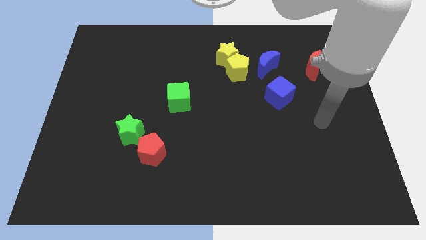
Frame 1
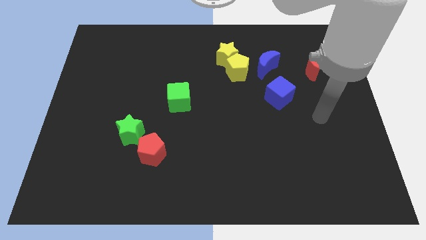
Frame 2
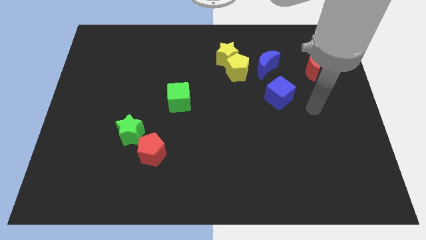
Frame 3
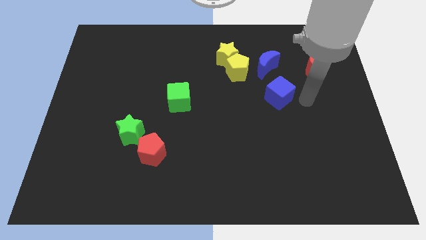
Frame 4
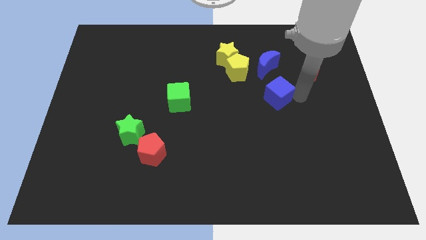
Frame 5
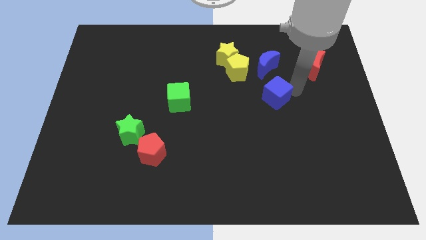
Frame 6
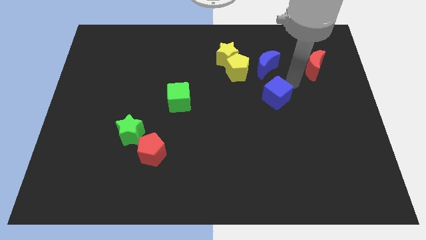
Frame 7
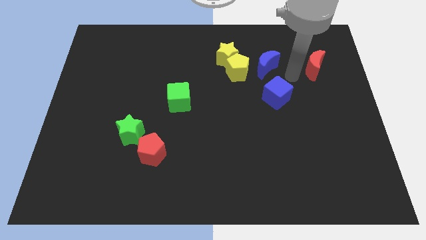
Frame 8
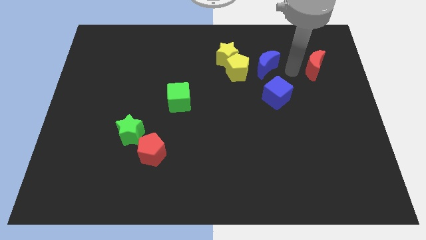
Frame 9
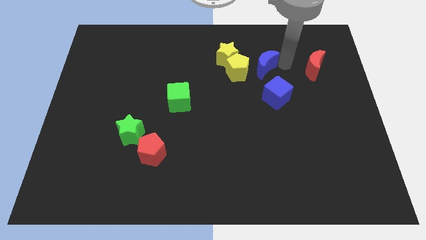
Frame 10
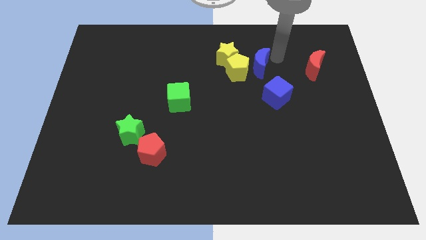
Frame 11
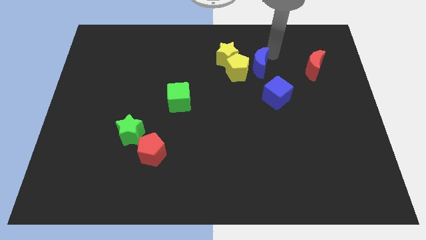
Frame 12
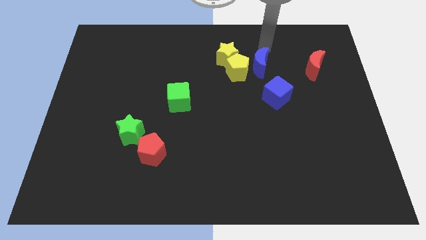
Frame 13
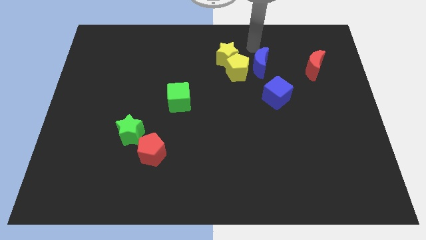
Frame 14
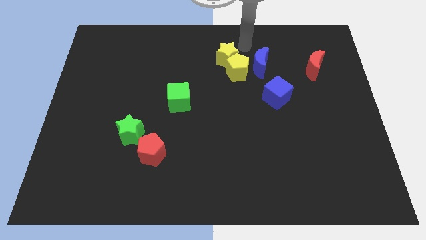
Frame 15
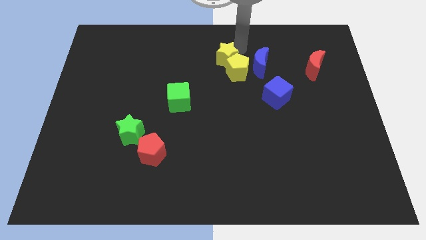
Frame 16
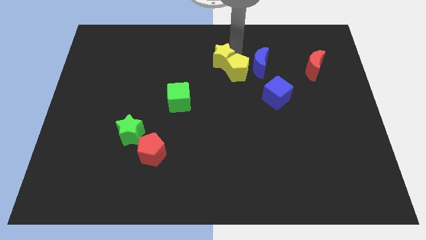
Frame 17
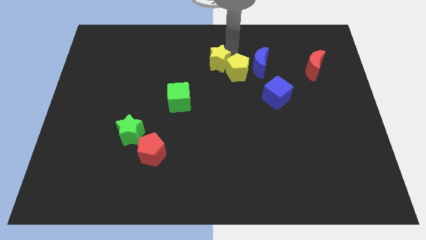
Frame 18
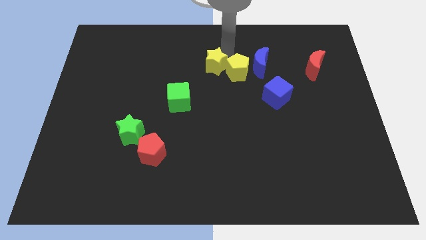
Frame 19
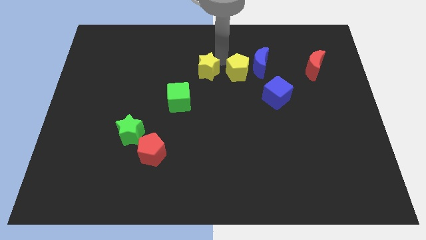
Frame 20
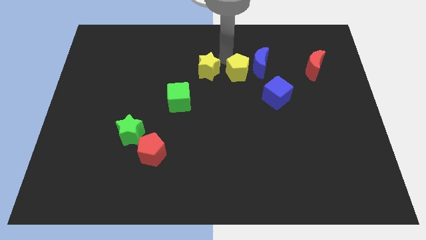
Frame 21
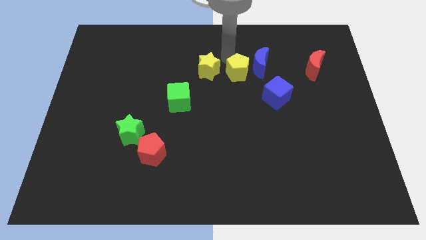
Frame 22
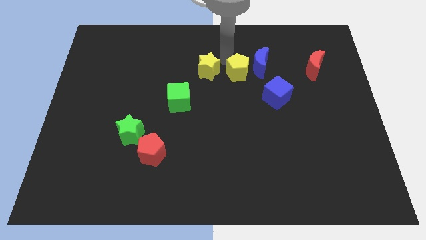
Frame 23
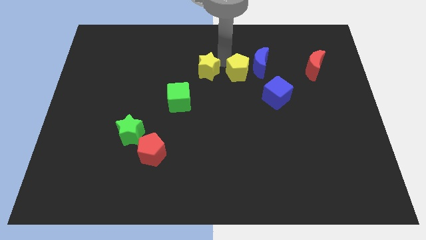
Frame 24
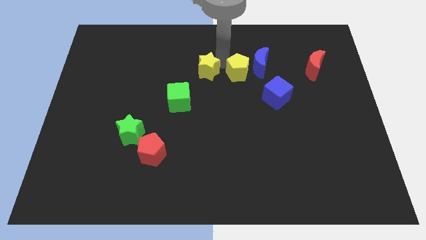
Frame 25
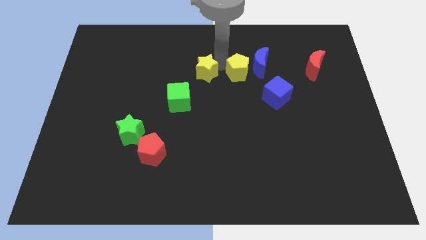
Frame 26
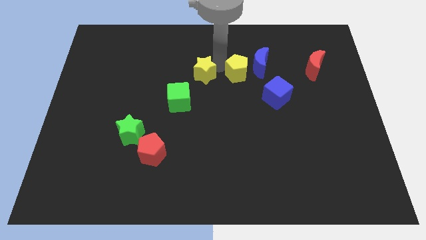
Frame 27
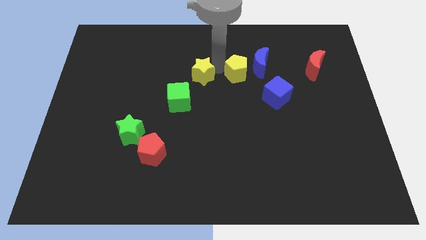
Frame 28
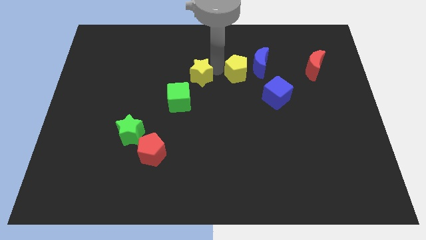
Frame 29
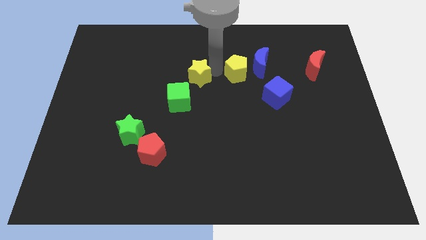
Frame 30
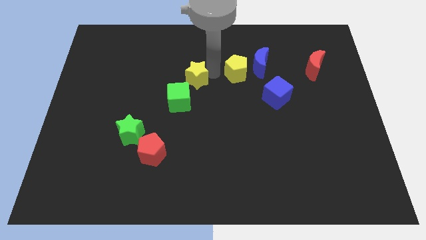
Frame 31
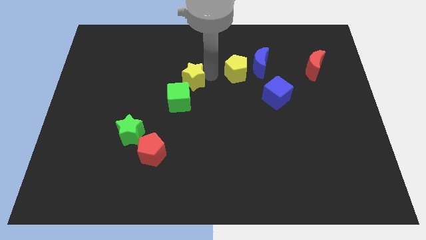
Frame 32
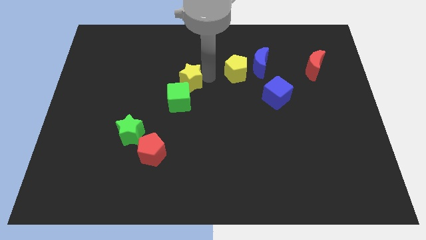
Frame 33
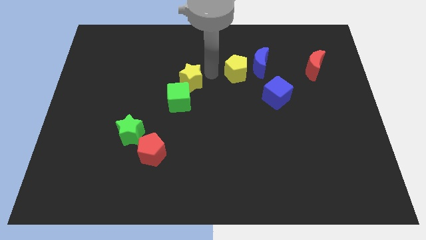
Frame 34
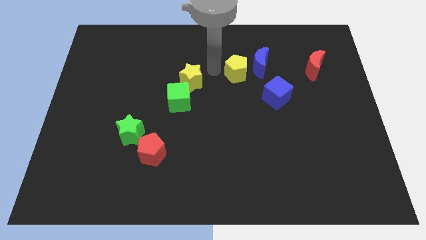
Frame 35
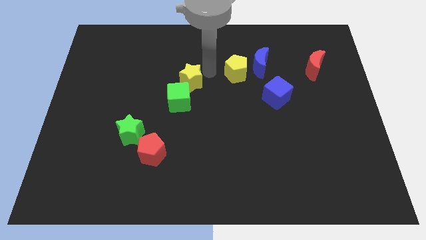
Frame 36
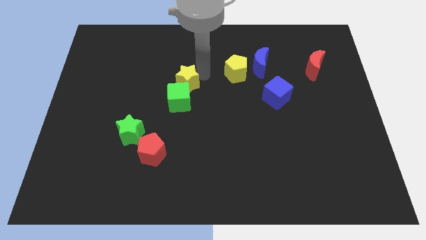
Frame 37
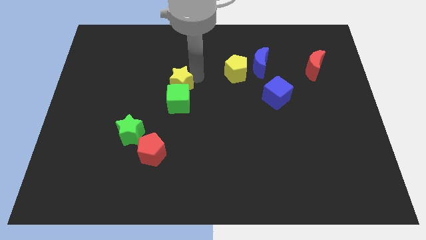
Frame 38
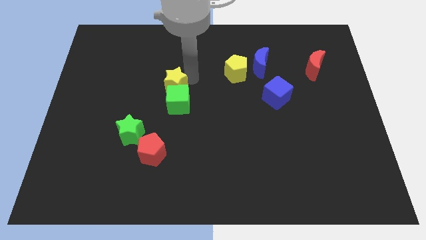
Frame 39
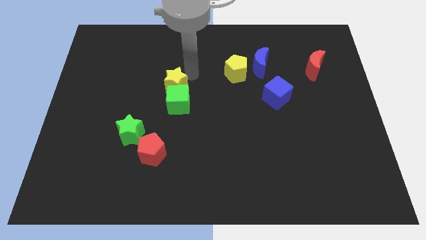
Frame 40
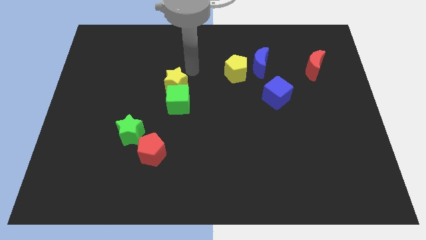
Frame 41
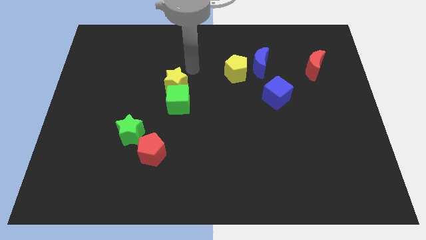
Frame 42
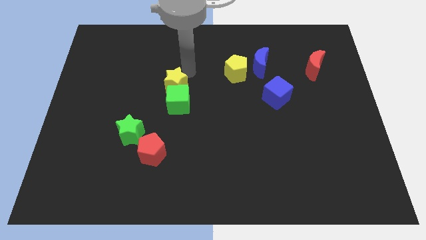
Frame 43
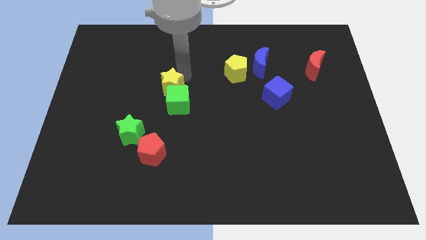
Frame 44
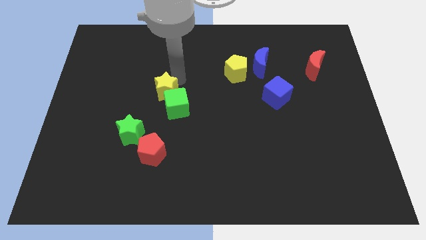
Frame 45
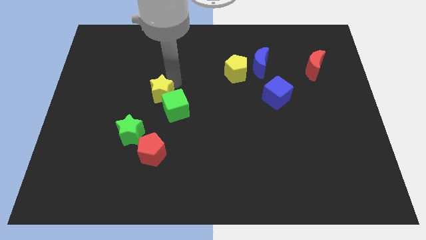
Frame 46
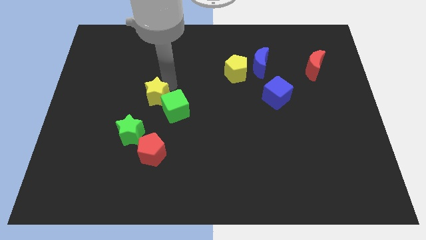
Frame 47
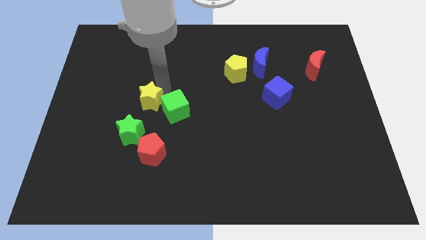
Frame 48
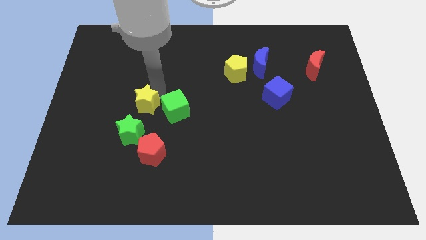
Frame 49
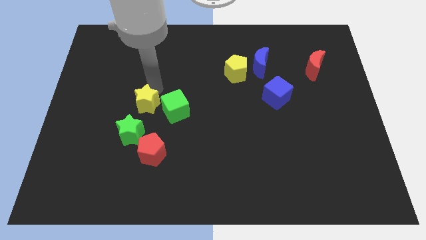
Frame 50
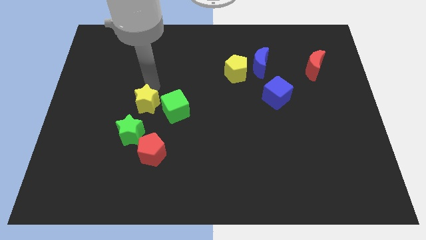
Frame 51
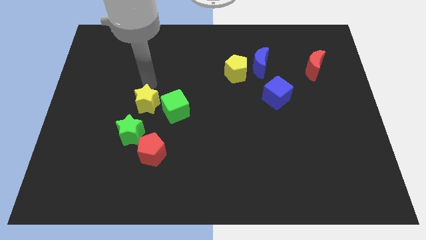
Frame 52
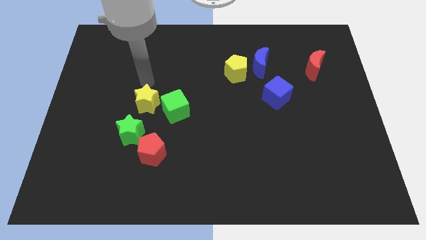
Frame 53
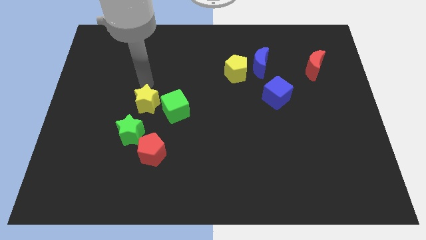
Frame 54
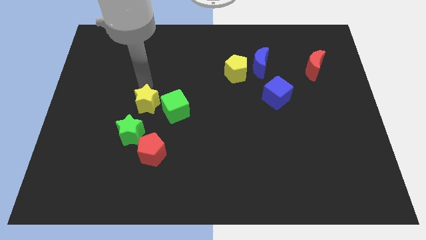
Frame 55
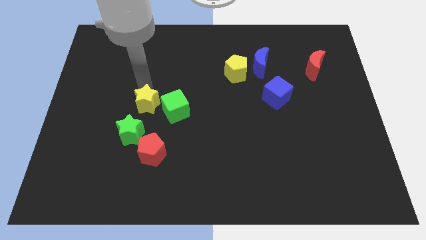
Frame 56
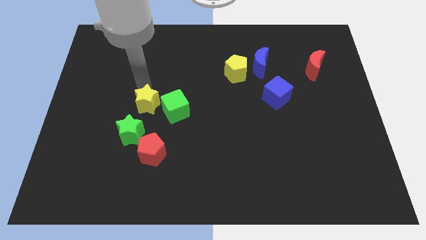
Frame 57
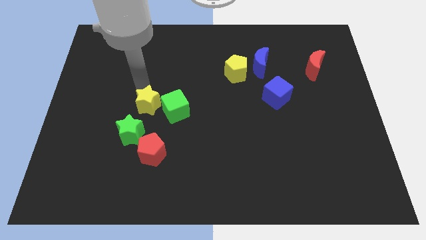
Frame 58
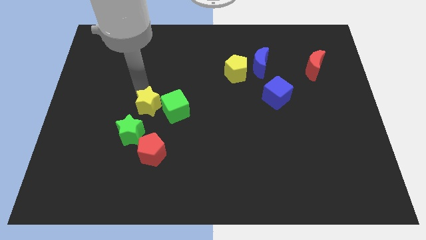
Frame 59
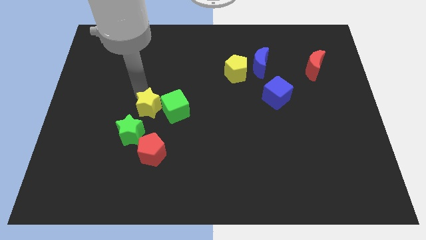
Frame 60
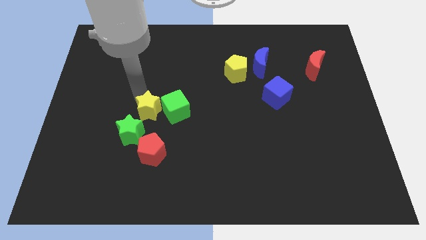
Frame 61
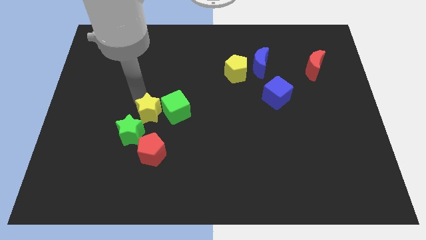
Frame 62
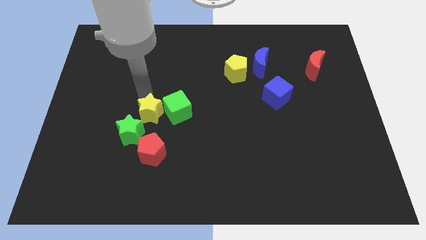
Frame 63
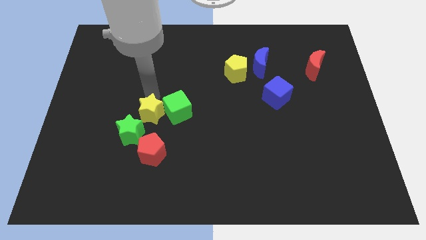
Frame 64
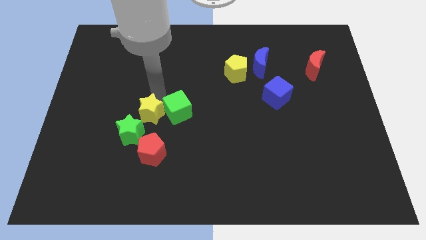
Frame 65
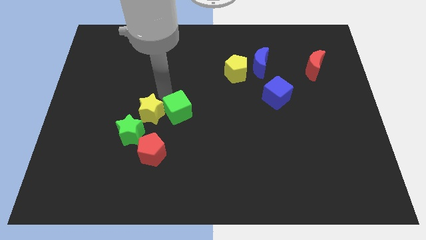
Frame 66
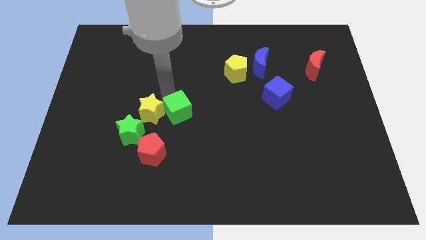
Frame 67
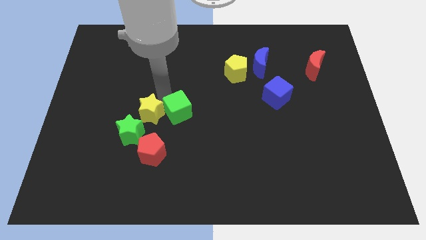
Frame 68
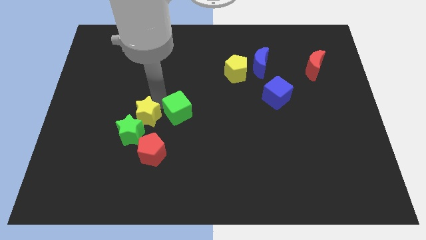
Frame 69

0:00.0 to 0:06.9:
put the yellow star to the green star

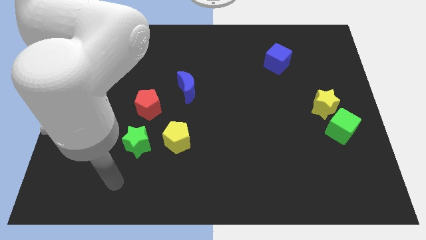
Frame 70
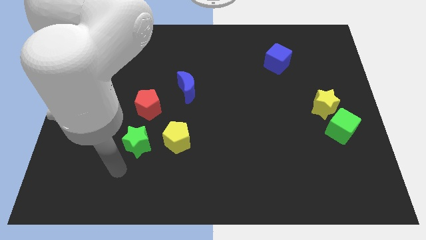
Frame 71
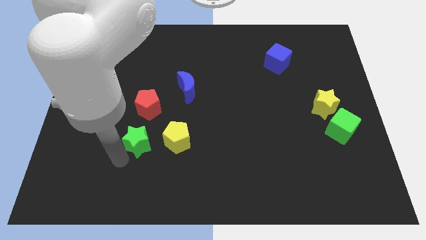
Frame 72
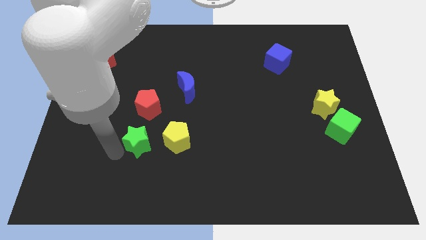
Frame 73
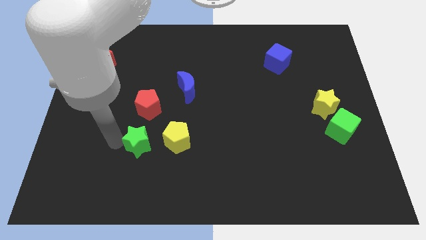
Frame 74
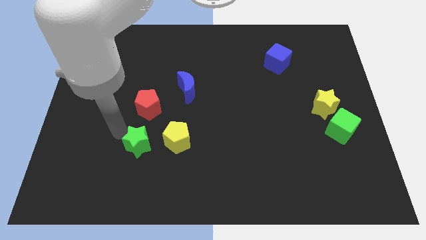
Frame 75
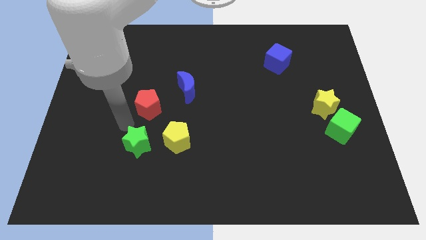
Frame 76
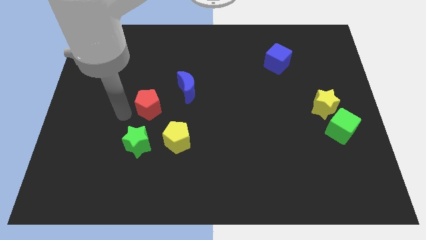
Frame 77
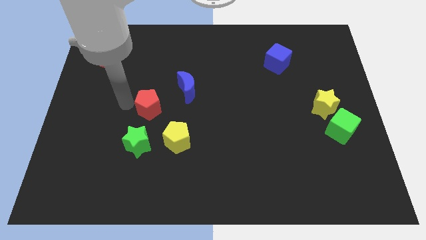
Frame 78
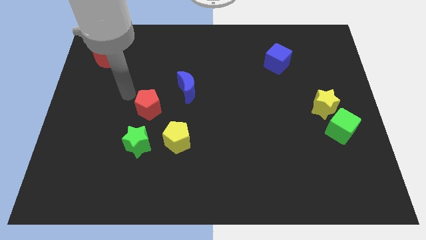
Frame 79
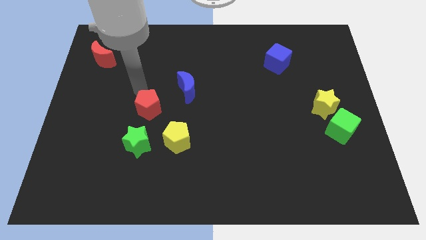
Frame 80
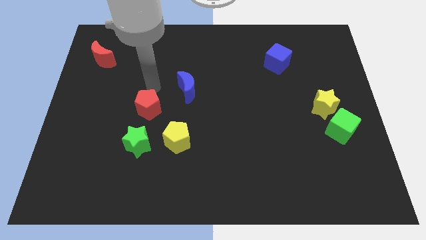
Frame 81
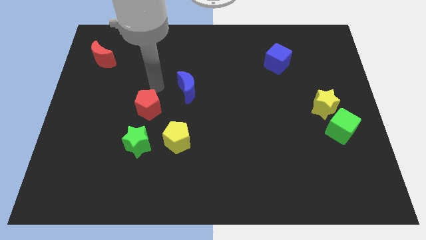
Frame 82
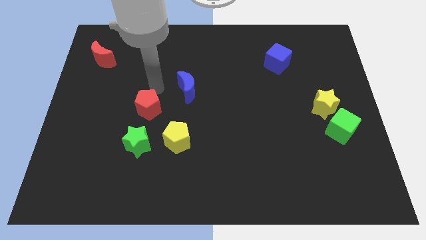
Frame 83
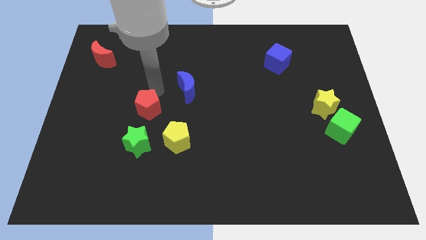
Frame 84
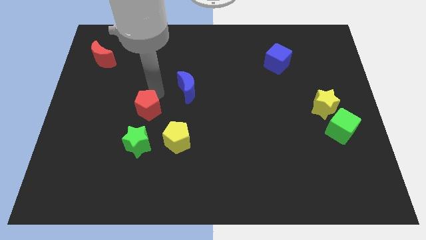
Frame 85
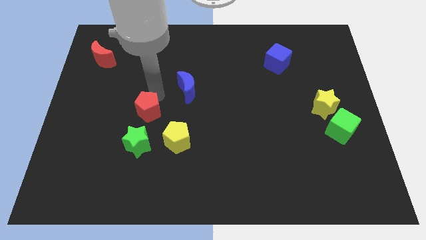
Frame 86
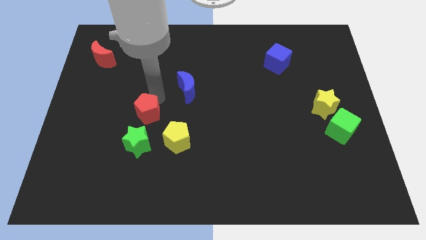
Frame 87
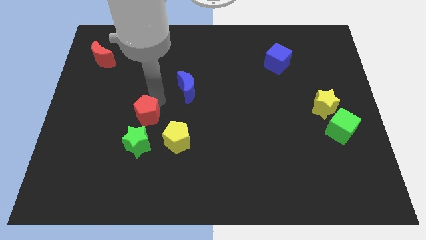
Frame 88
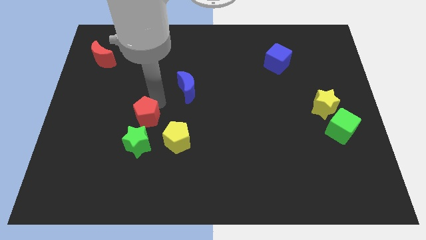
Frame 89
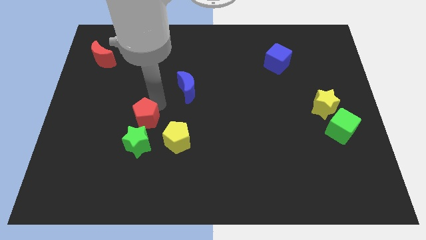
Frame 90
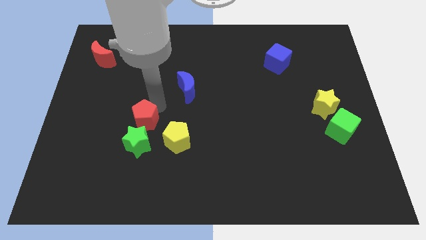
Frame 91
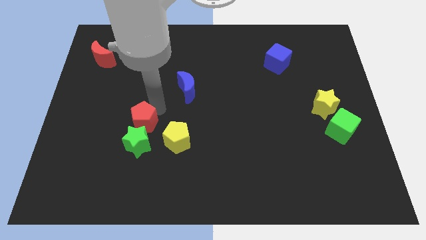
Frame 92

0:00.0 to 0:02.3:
put the red pentagon next to the green star
